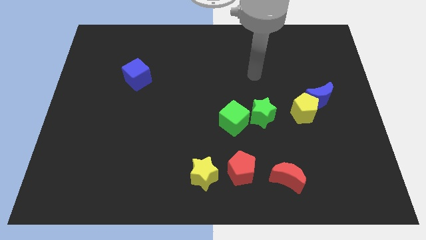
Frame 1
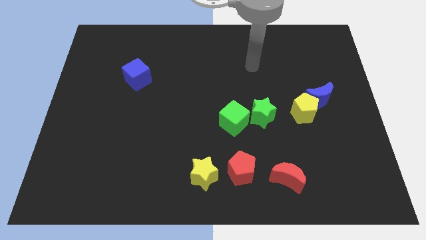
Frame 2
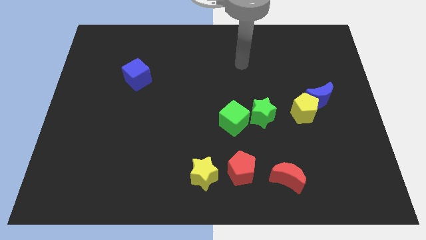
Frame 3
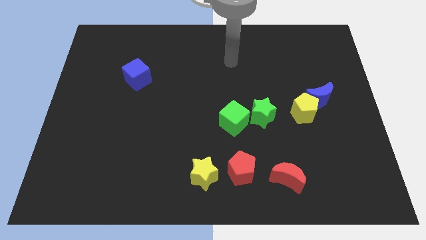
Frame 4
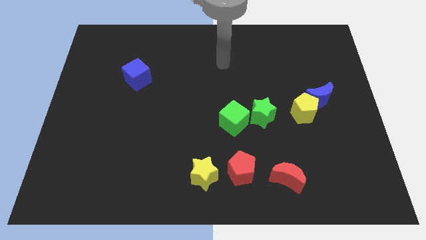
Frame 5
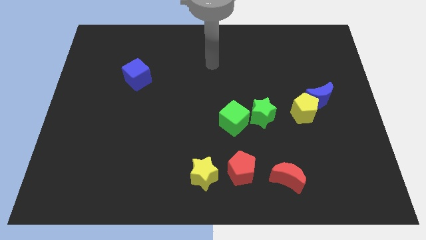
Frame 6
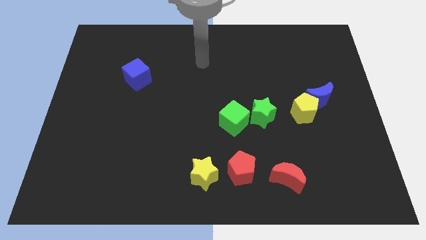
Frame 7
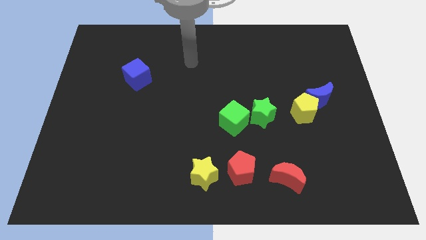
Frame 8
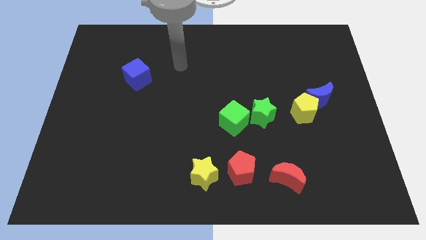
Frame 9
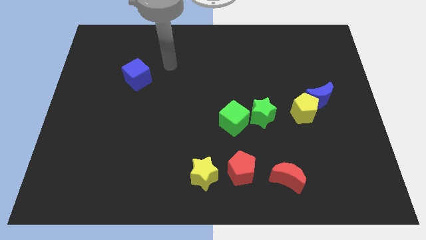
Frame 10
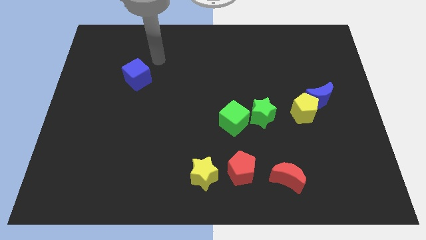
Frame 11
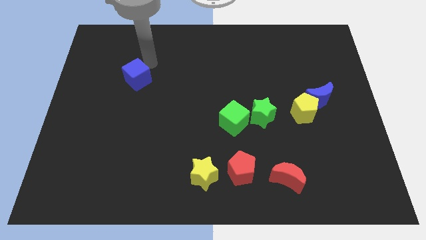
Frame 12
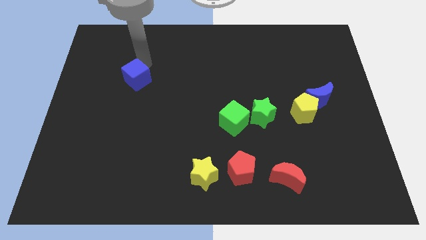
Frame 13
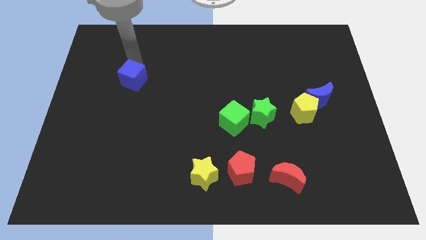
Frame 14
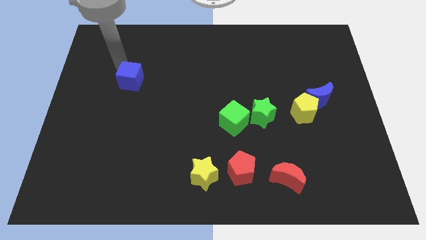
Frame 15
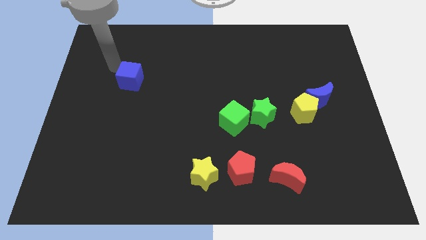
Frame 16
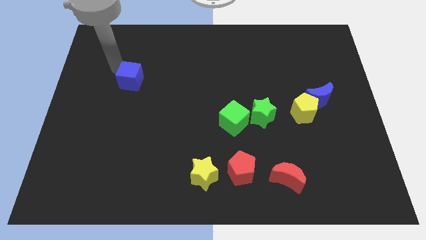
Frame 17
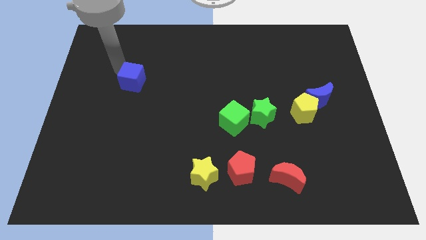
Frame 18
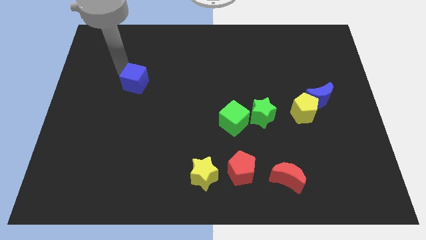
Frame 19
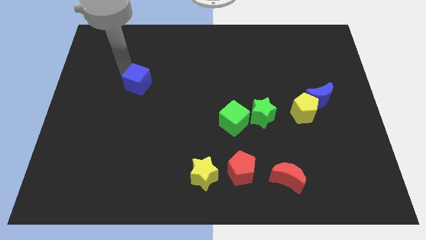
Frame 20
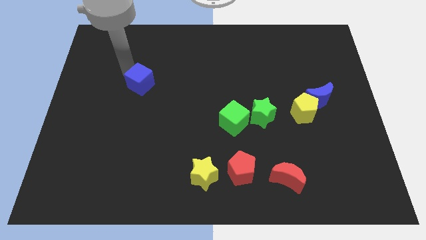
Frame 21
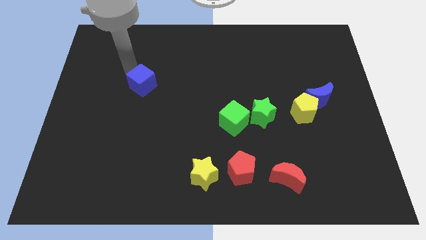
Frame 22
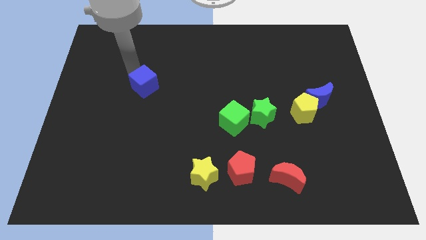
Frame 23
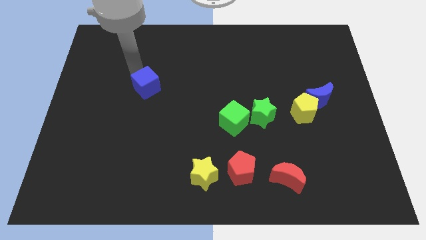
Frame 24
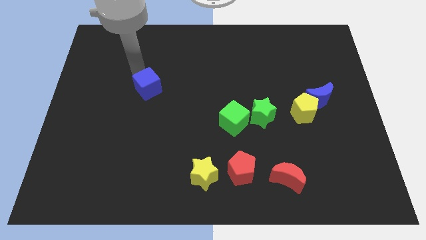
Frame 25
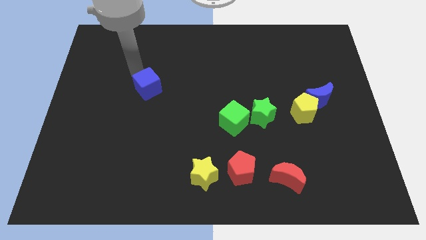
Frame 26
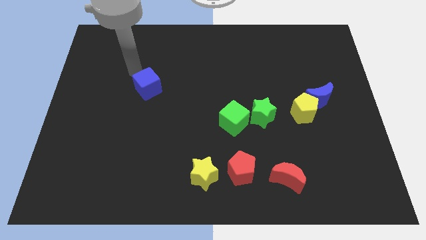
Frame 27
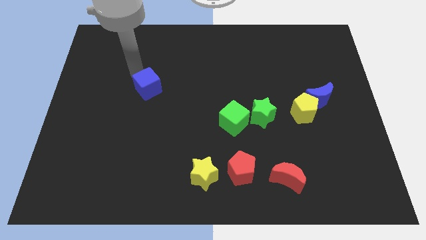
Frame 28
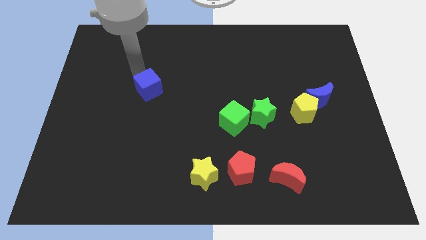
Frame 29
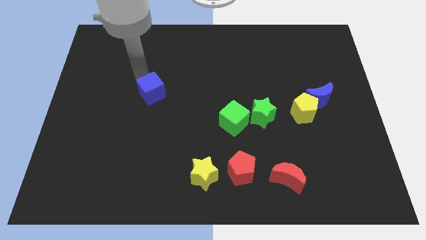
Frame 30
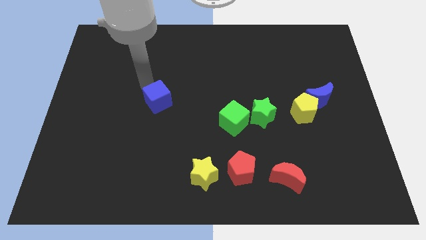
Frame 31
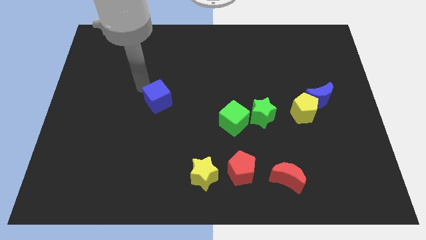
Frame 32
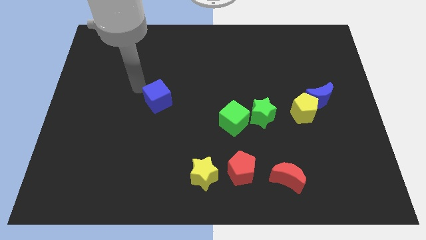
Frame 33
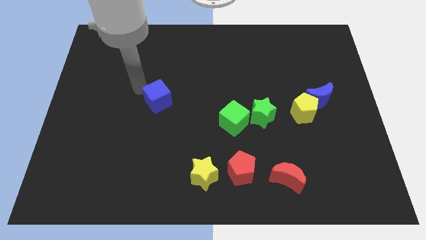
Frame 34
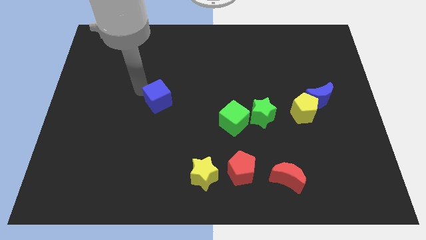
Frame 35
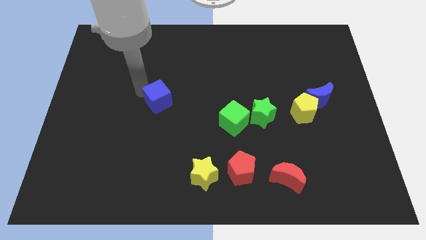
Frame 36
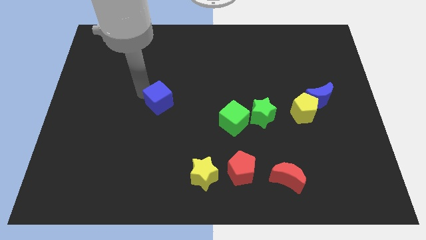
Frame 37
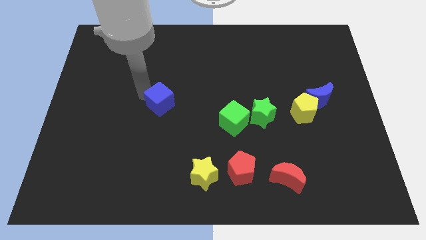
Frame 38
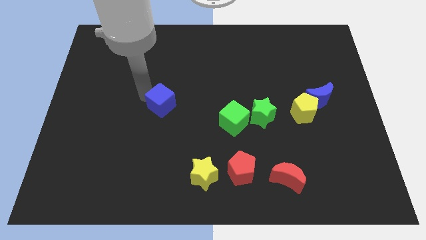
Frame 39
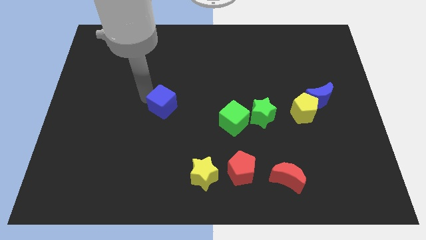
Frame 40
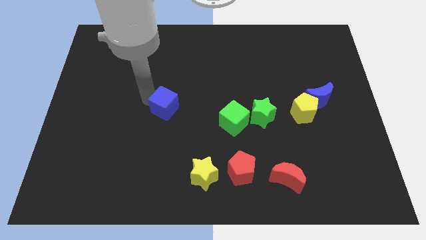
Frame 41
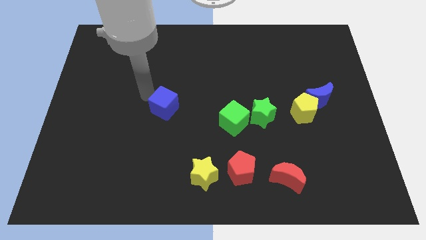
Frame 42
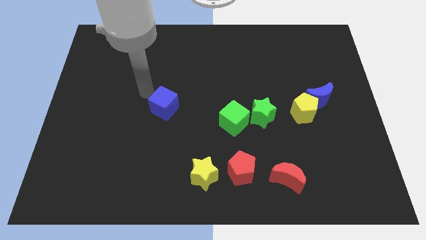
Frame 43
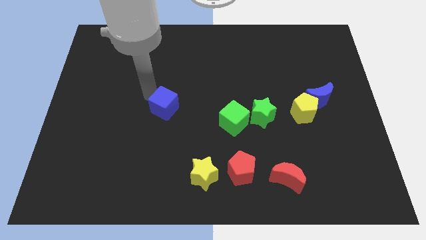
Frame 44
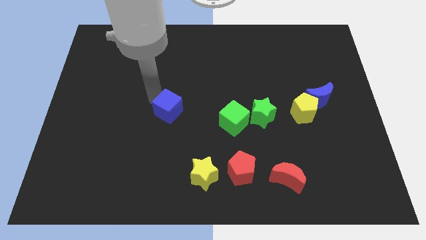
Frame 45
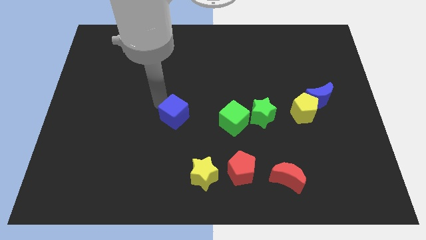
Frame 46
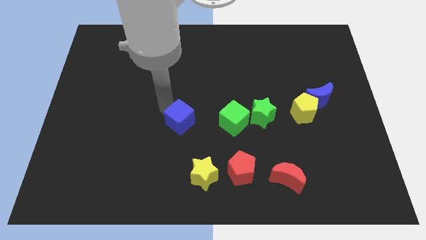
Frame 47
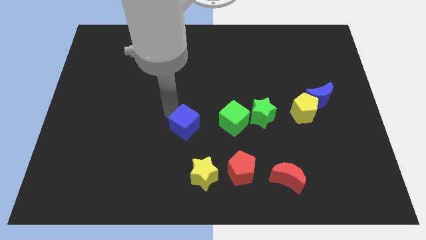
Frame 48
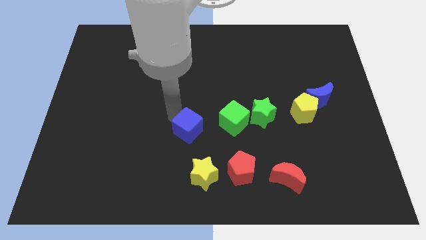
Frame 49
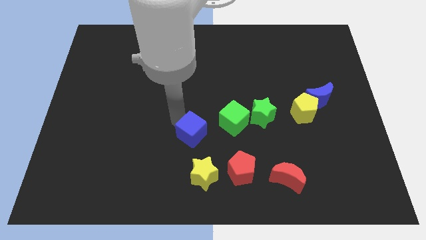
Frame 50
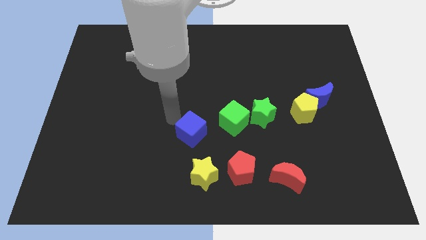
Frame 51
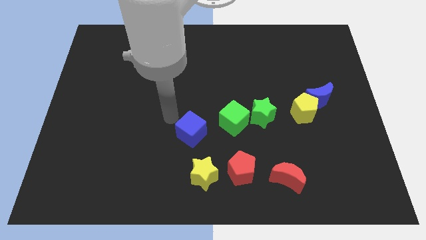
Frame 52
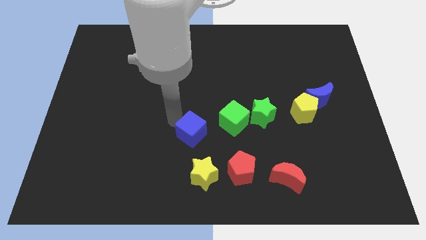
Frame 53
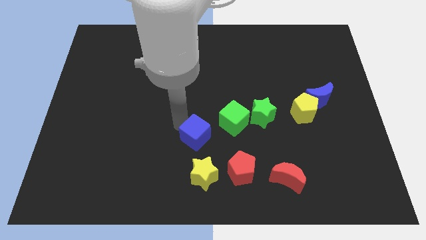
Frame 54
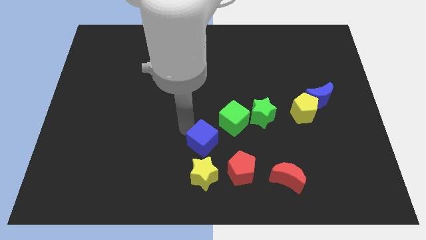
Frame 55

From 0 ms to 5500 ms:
slide the blue cube to the top left of the red pentagon

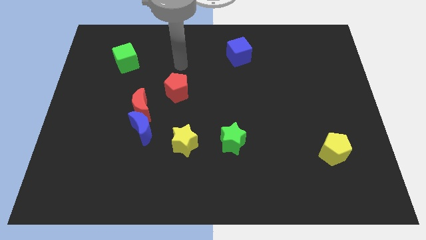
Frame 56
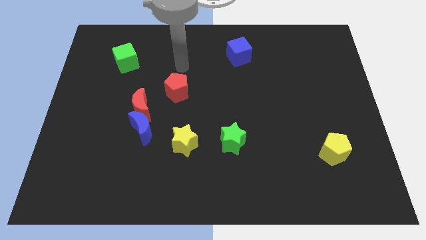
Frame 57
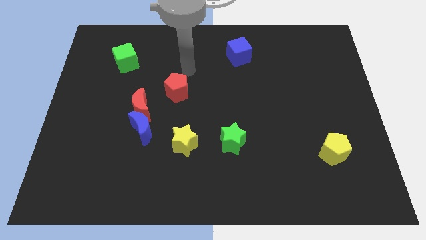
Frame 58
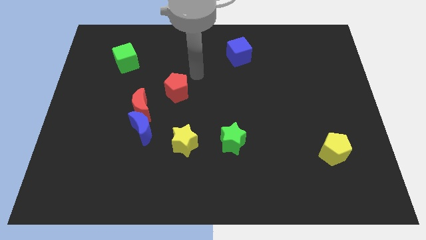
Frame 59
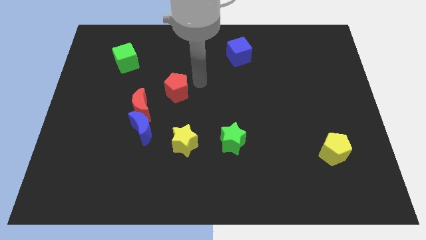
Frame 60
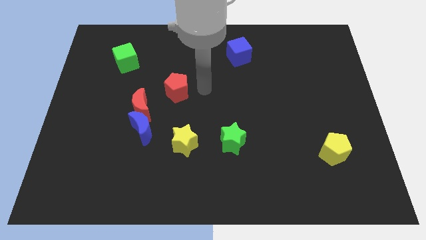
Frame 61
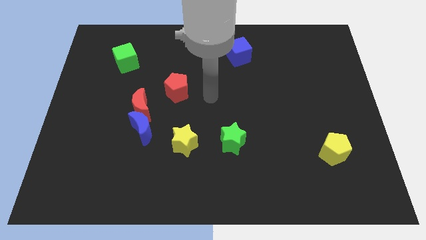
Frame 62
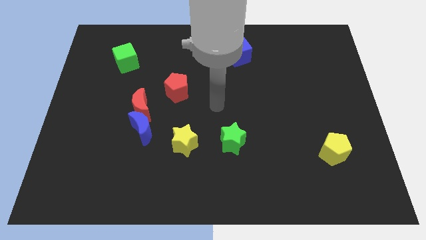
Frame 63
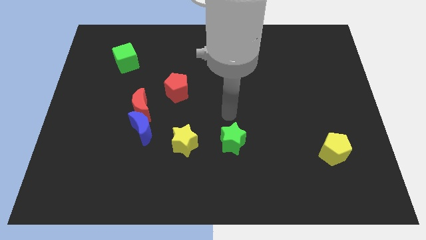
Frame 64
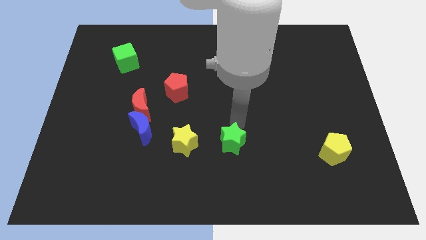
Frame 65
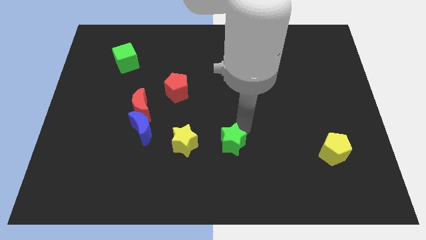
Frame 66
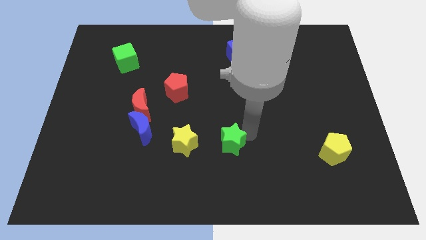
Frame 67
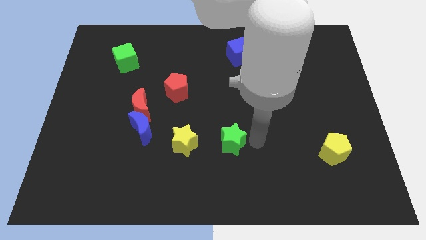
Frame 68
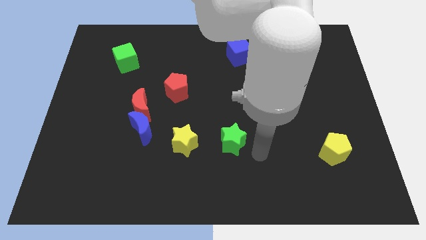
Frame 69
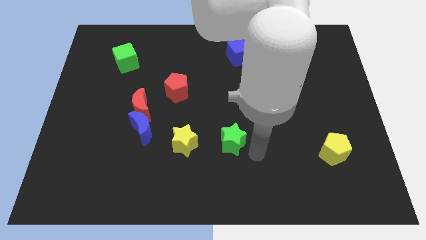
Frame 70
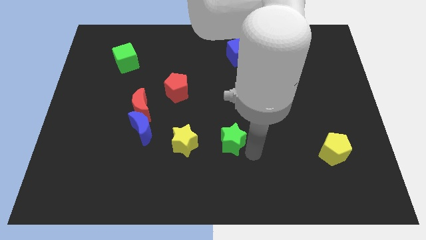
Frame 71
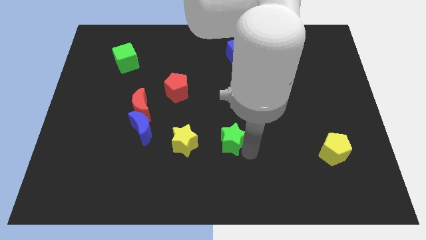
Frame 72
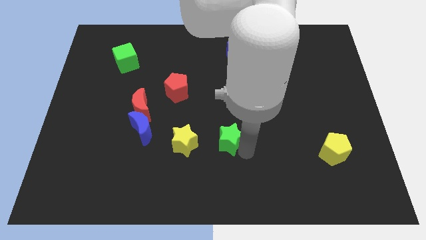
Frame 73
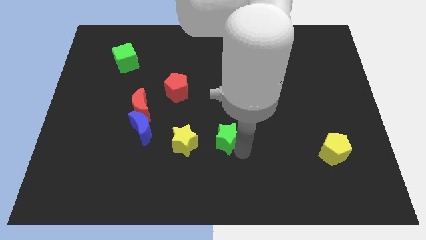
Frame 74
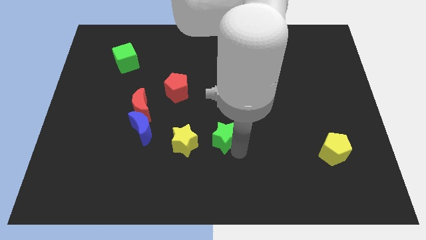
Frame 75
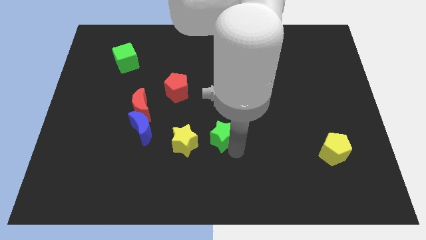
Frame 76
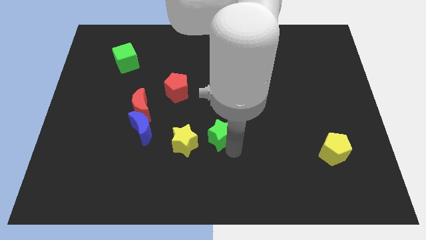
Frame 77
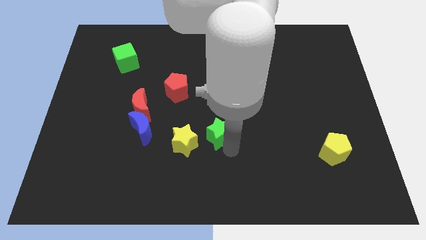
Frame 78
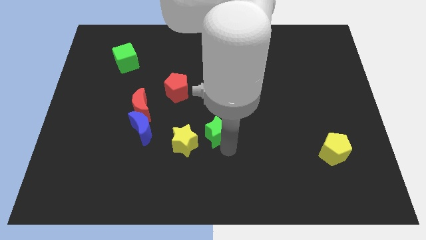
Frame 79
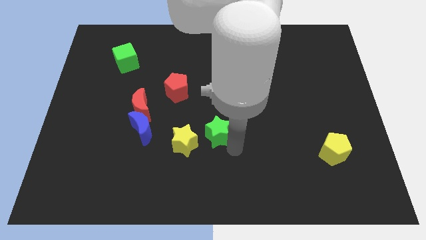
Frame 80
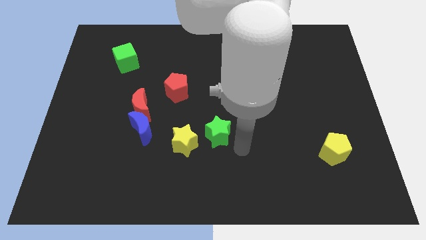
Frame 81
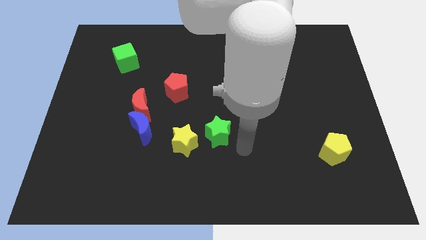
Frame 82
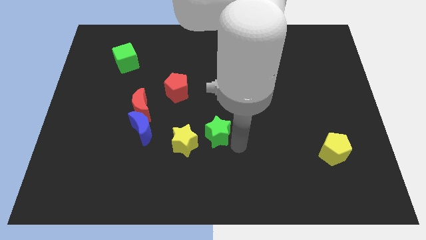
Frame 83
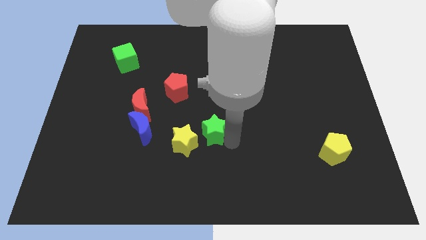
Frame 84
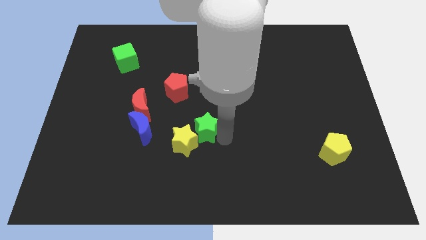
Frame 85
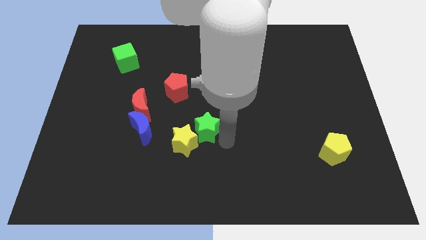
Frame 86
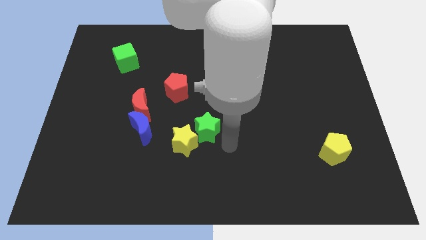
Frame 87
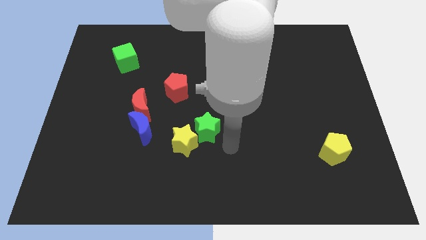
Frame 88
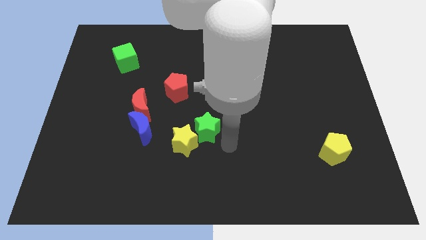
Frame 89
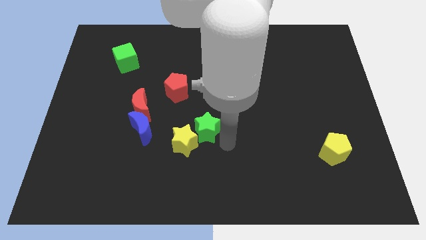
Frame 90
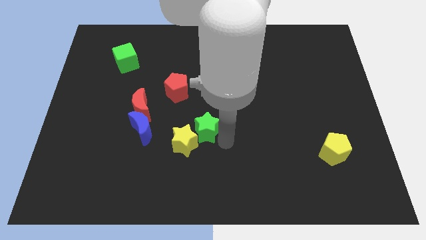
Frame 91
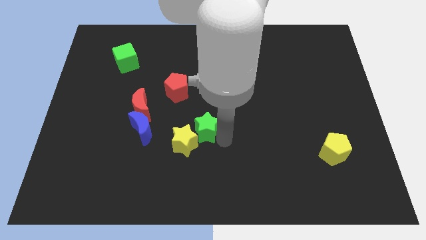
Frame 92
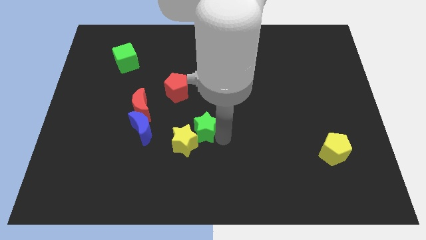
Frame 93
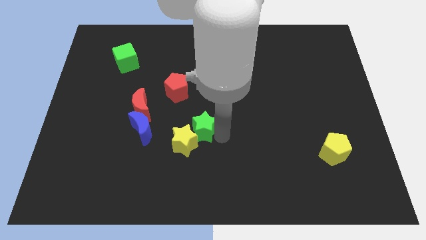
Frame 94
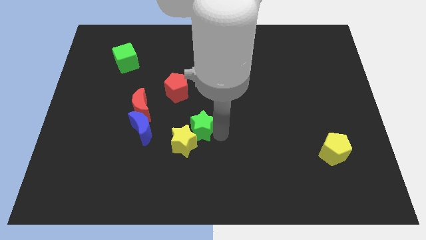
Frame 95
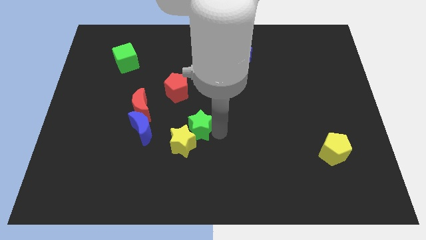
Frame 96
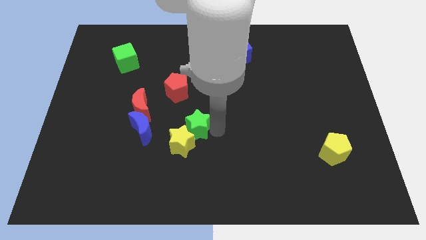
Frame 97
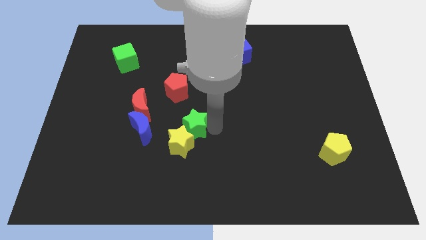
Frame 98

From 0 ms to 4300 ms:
slide the green star to the bottom side of the red pentagon
